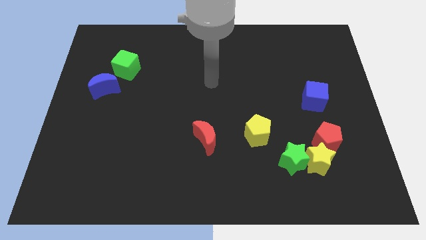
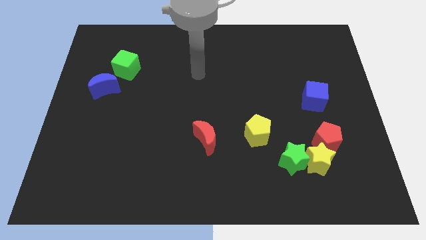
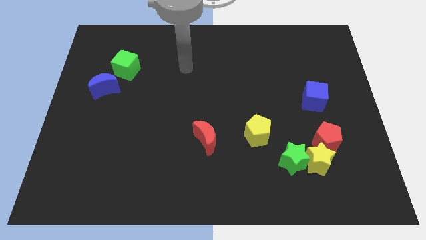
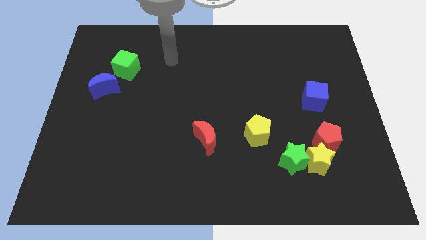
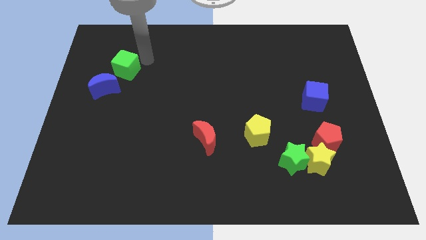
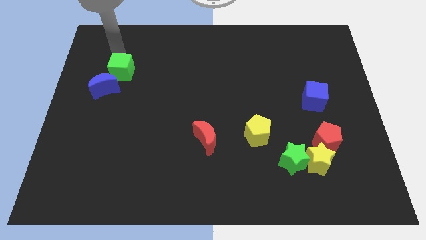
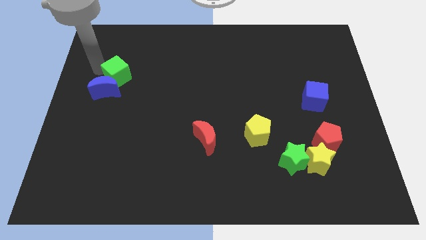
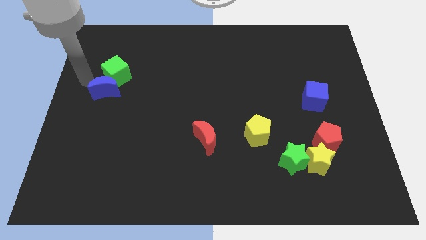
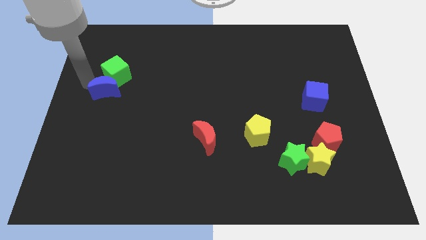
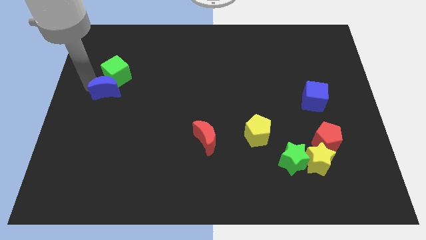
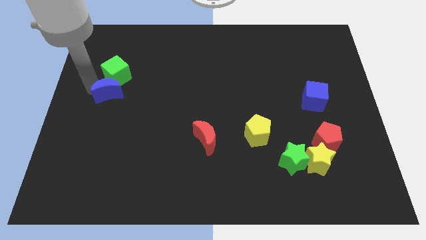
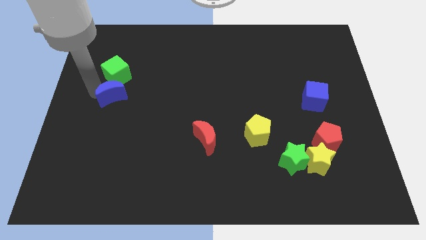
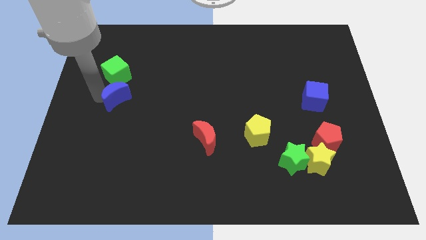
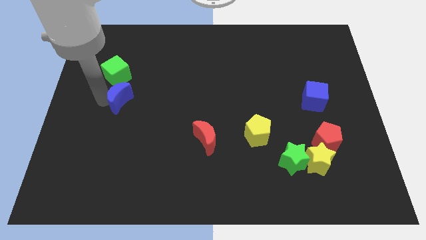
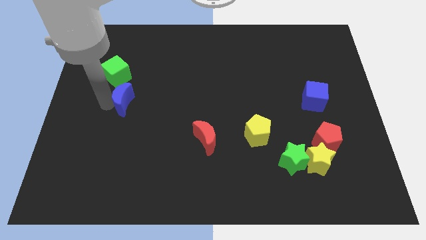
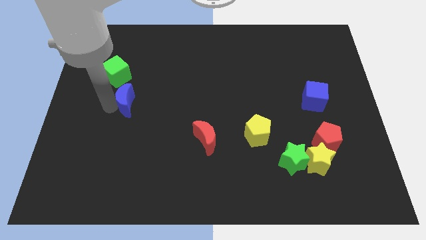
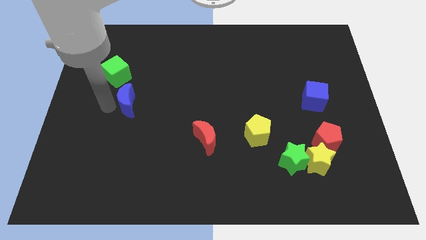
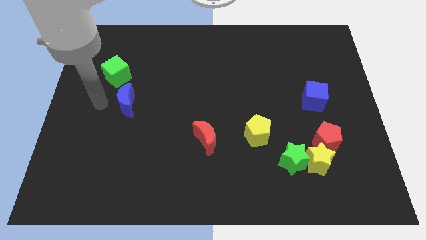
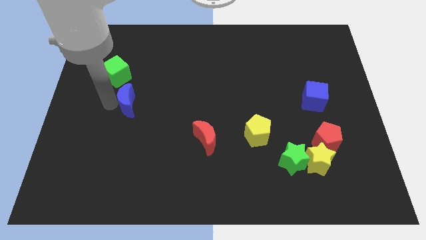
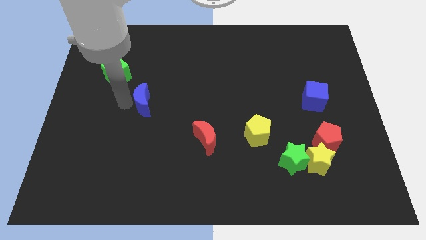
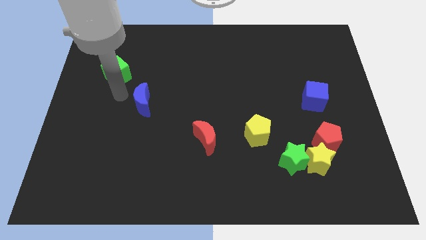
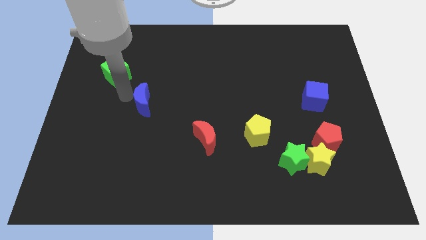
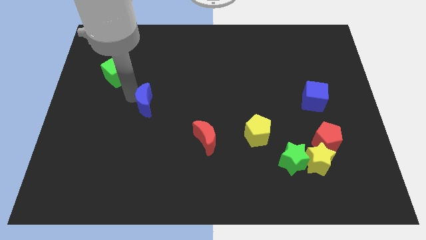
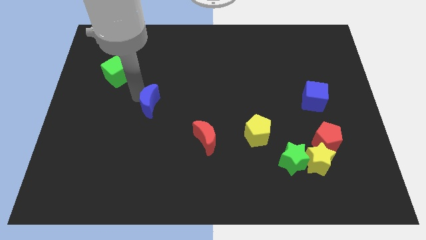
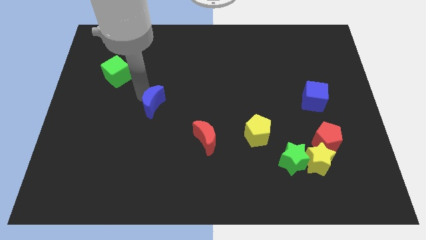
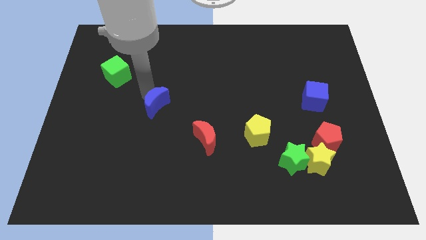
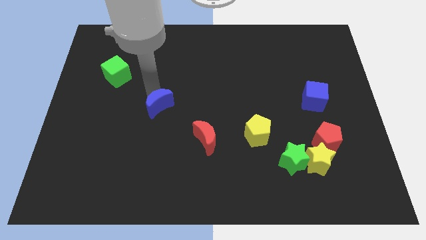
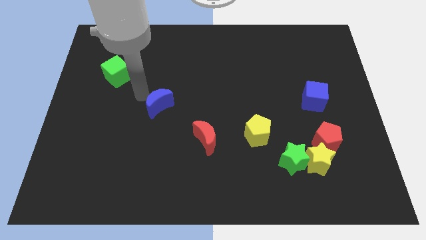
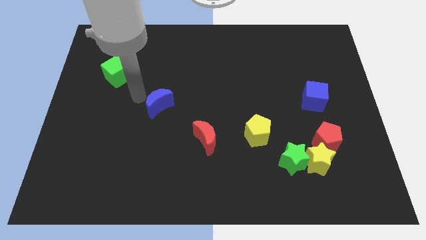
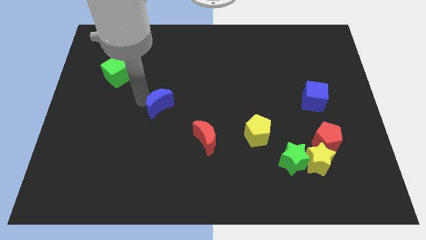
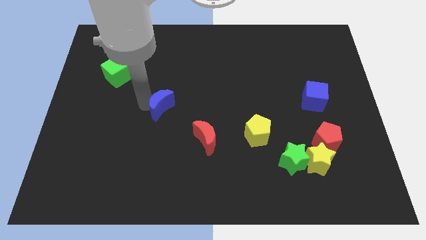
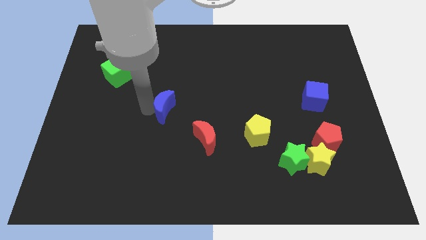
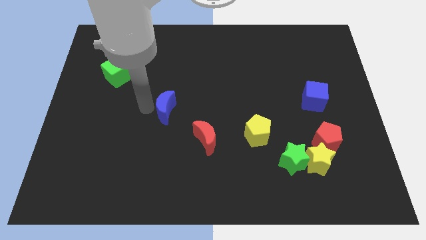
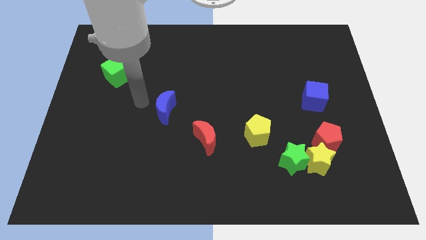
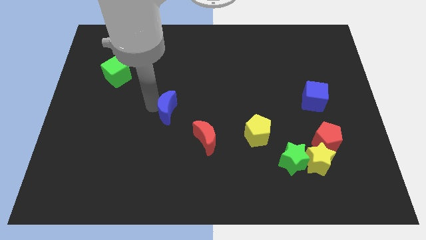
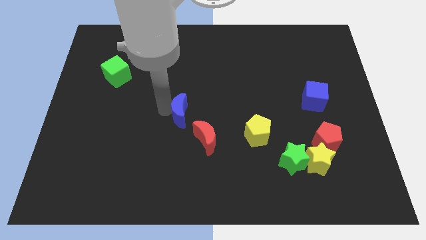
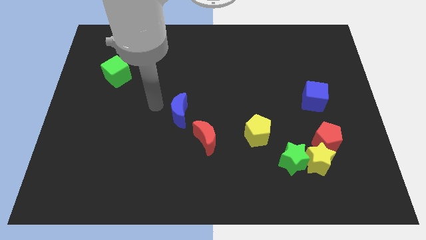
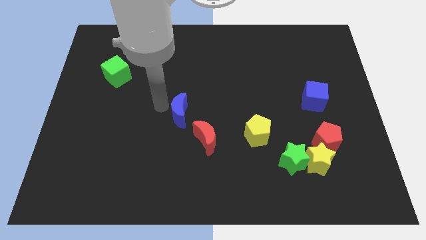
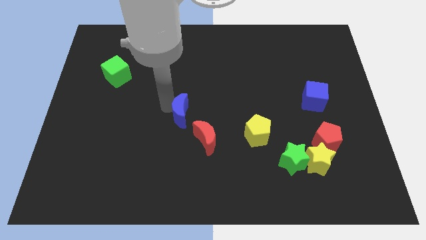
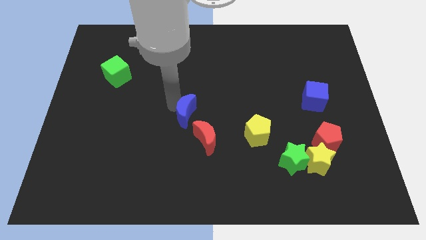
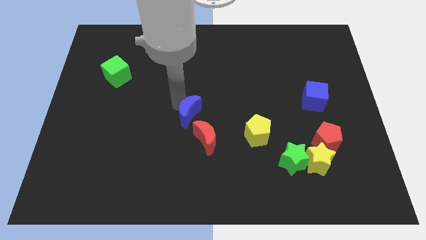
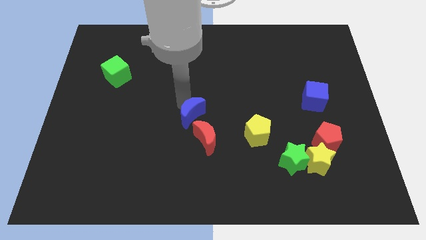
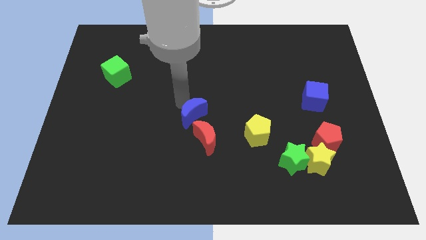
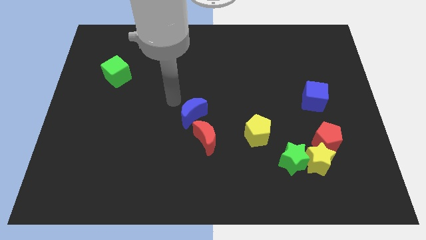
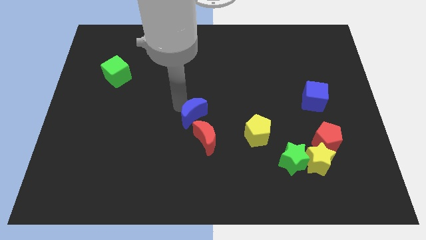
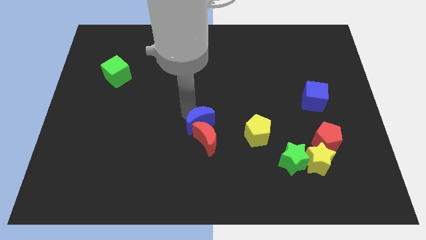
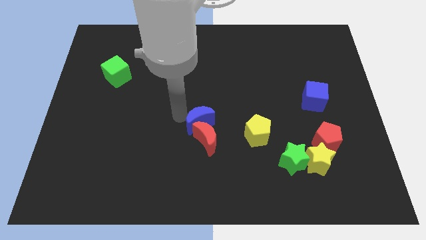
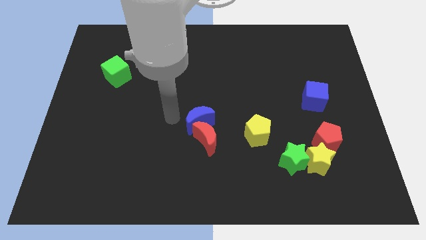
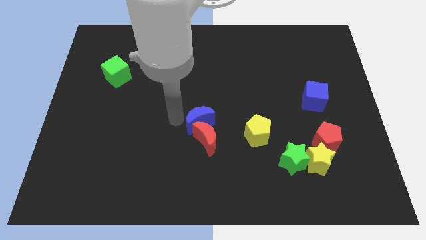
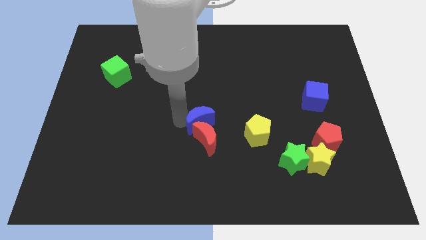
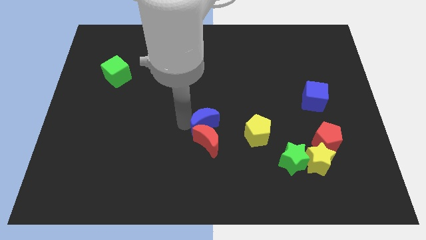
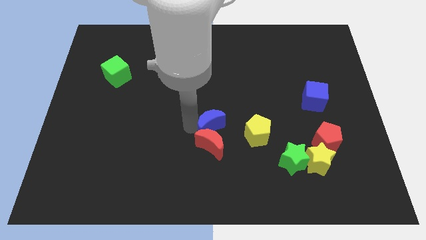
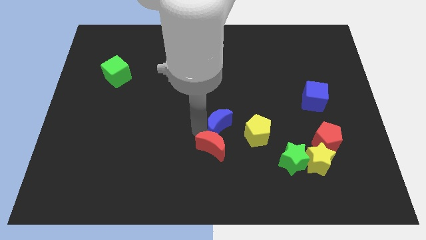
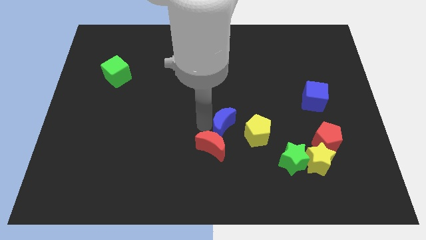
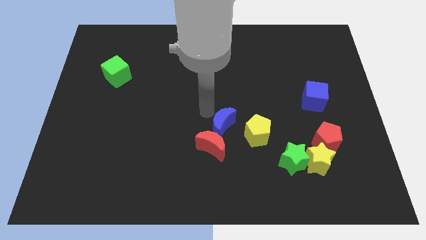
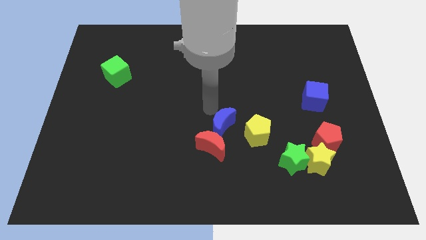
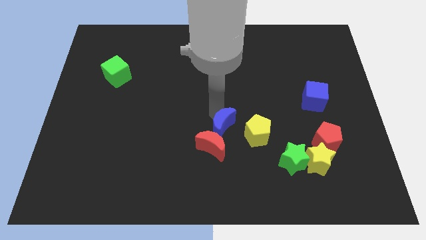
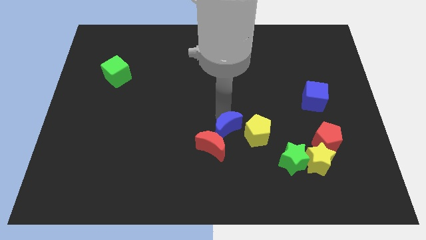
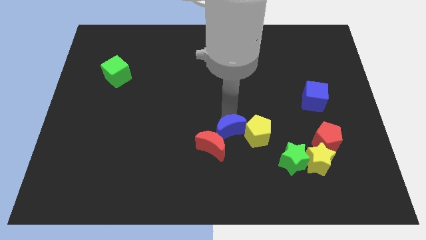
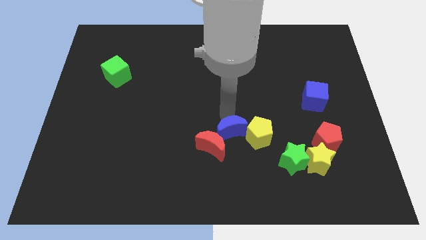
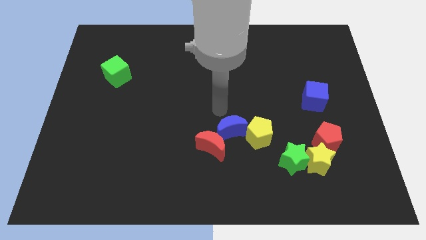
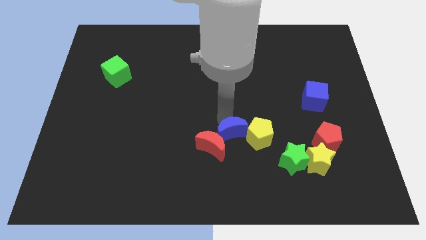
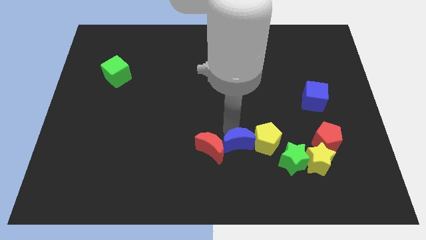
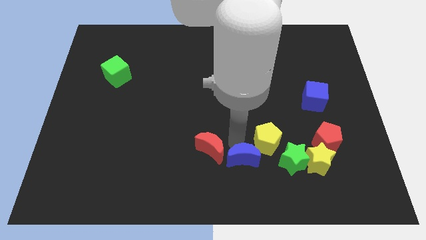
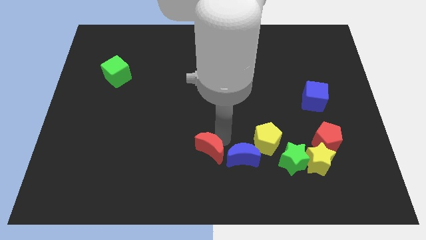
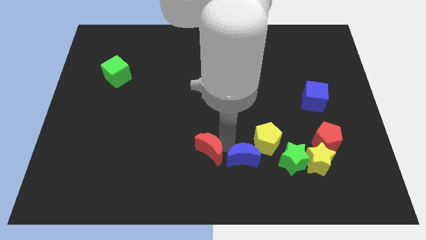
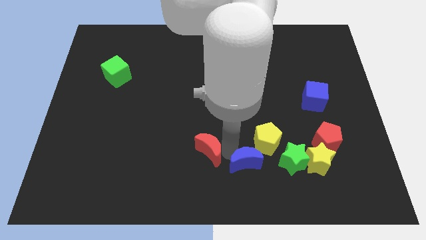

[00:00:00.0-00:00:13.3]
push the blue moon to the bottom side of the yellow pentagon
